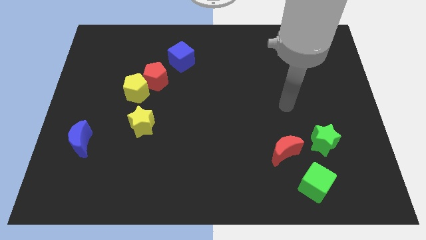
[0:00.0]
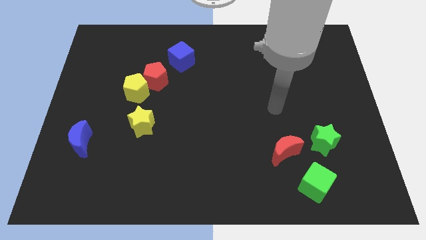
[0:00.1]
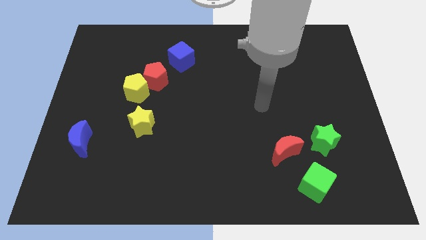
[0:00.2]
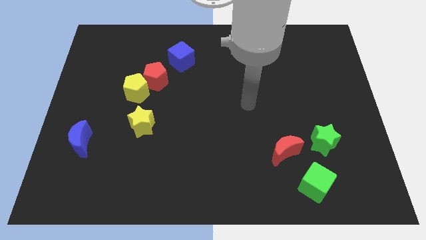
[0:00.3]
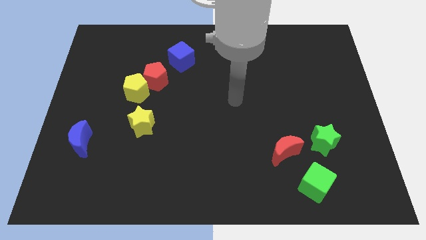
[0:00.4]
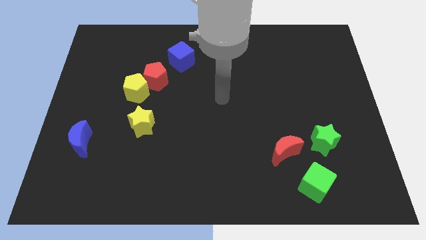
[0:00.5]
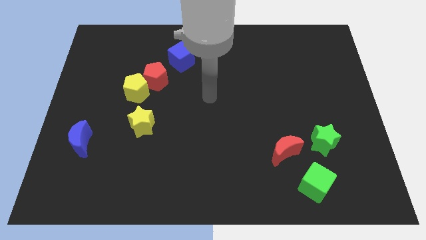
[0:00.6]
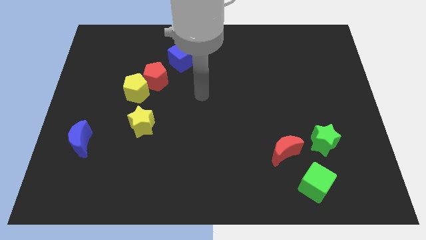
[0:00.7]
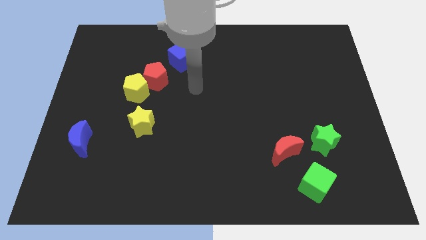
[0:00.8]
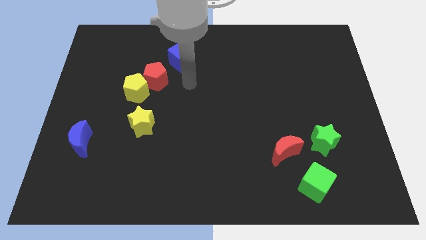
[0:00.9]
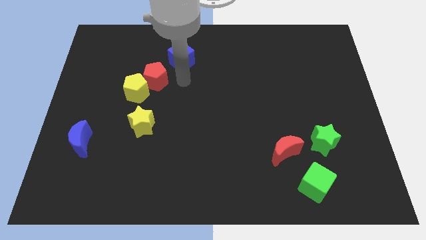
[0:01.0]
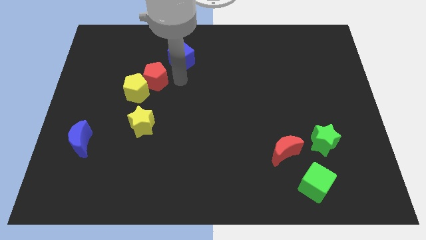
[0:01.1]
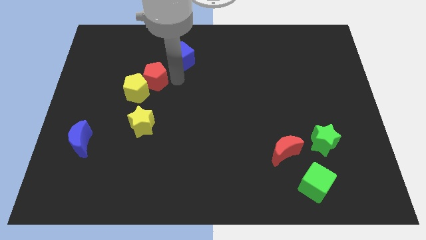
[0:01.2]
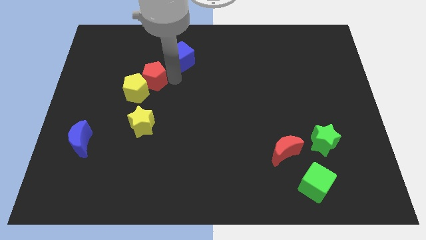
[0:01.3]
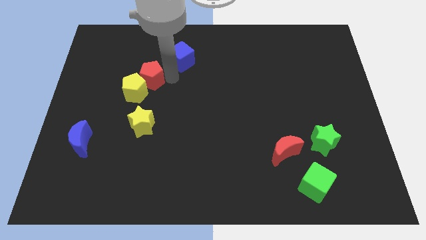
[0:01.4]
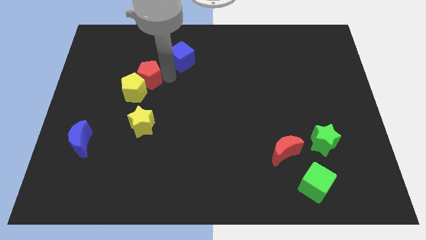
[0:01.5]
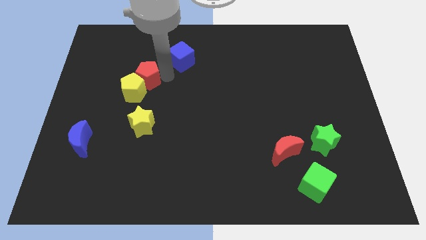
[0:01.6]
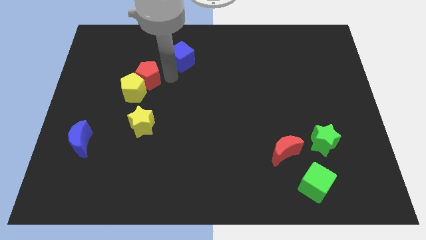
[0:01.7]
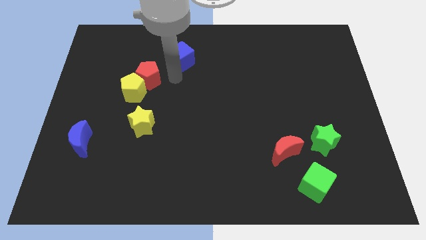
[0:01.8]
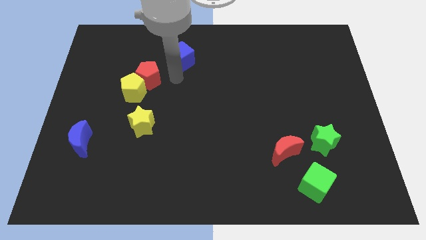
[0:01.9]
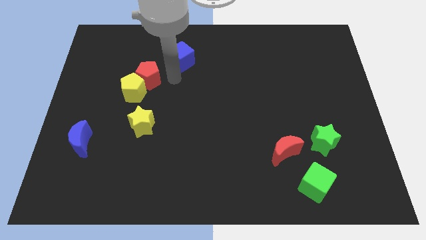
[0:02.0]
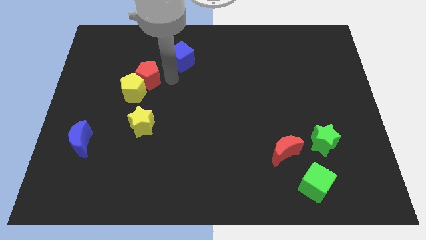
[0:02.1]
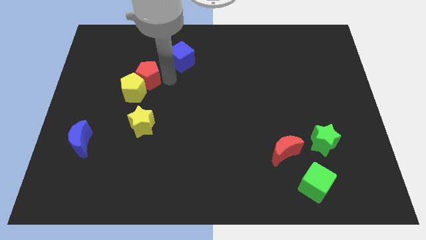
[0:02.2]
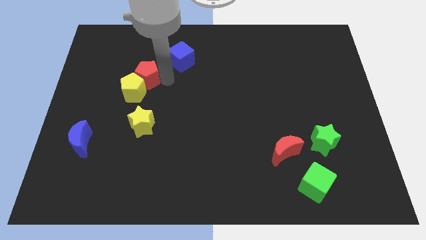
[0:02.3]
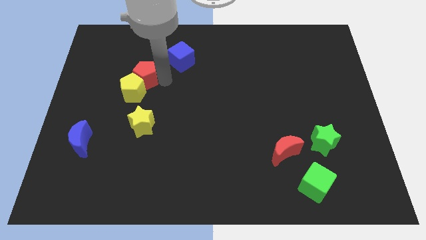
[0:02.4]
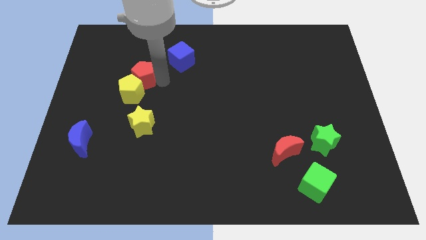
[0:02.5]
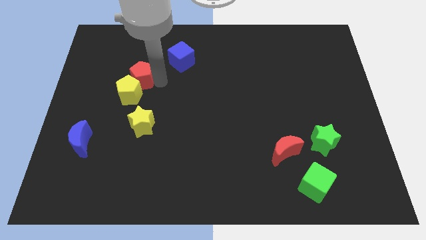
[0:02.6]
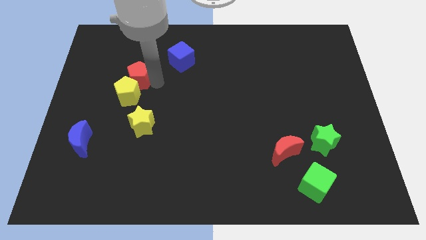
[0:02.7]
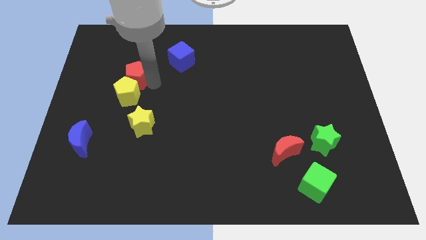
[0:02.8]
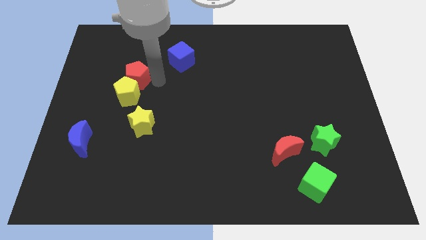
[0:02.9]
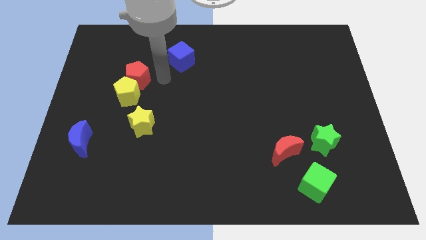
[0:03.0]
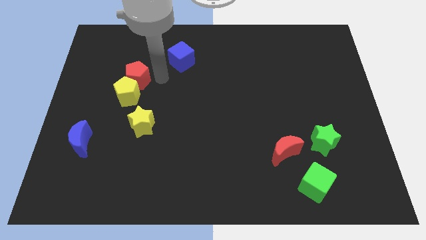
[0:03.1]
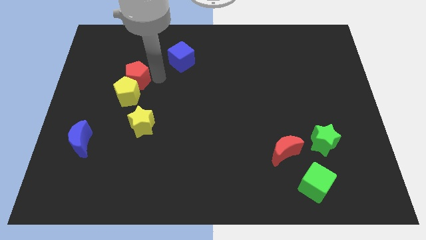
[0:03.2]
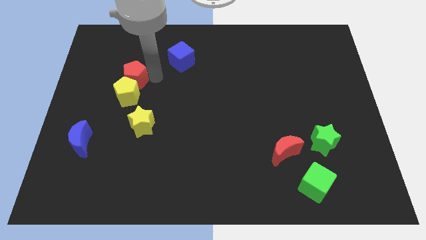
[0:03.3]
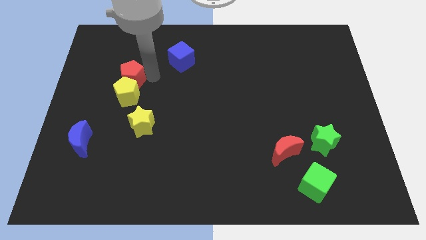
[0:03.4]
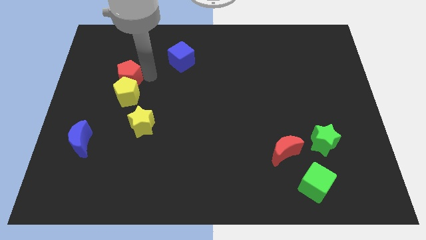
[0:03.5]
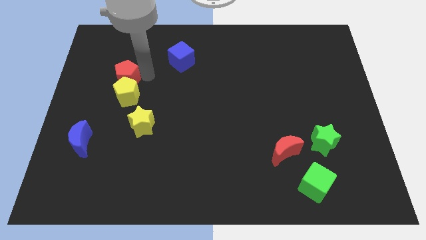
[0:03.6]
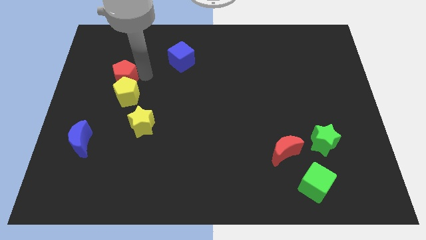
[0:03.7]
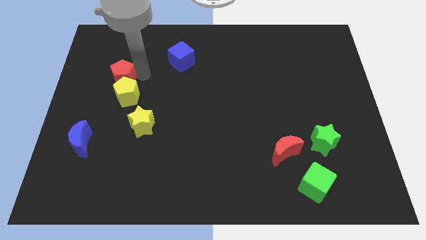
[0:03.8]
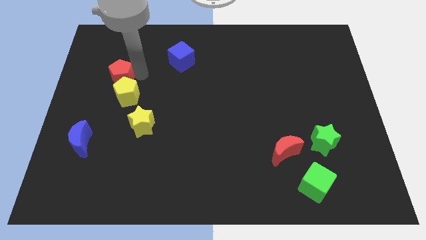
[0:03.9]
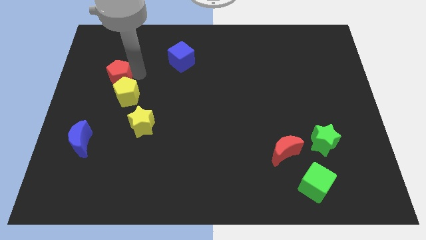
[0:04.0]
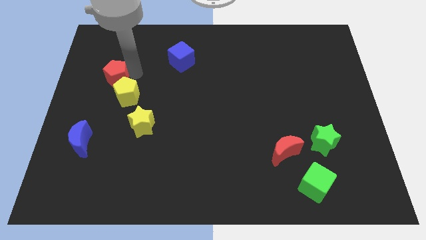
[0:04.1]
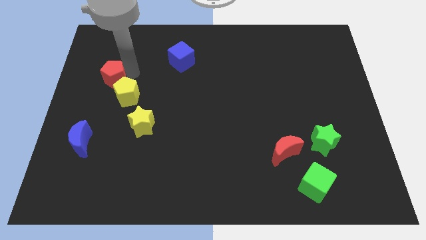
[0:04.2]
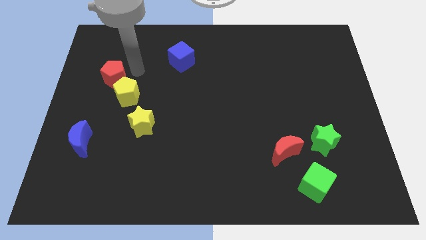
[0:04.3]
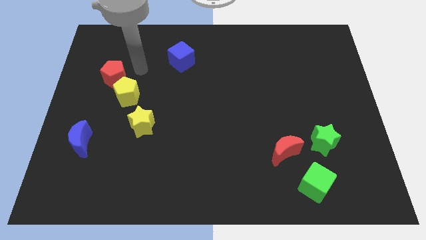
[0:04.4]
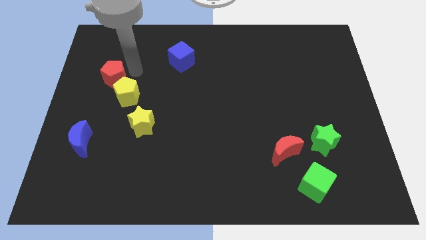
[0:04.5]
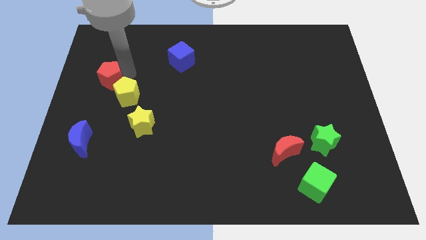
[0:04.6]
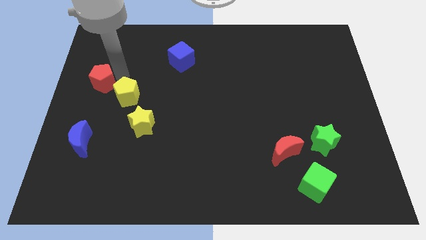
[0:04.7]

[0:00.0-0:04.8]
put the red pentagon to the left side

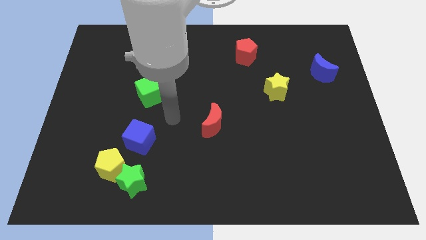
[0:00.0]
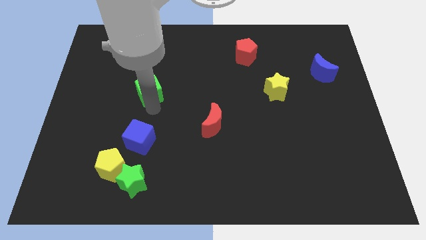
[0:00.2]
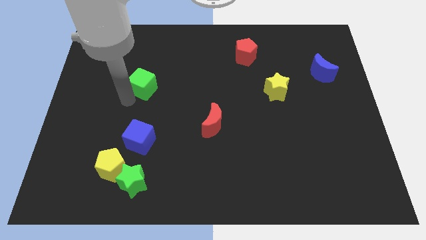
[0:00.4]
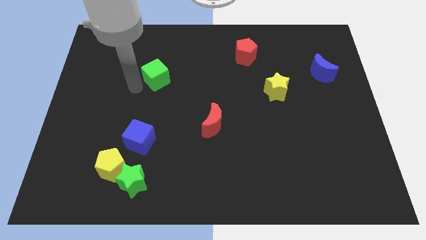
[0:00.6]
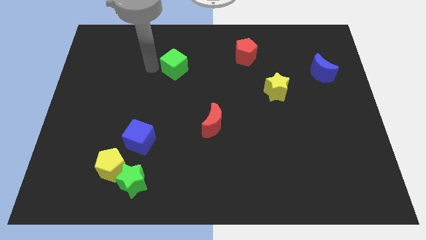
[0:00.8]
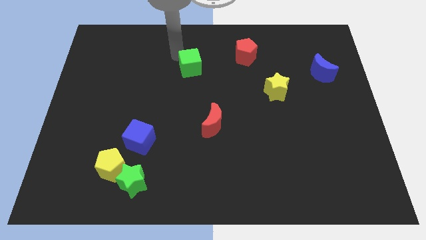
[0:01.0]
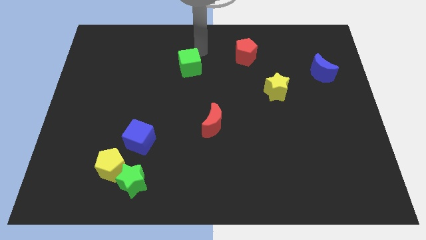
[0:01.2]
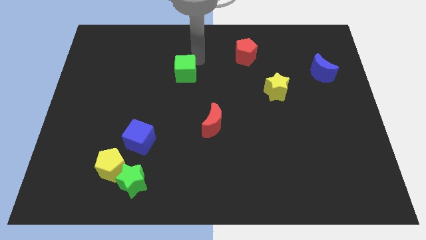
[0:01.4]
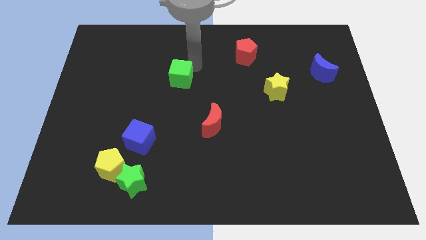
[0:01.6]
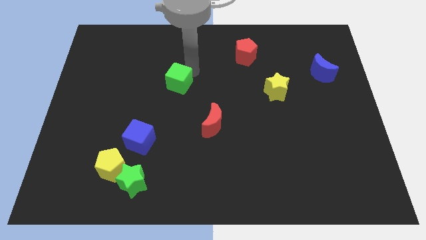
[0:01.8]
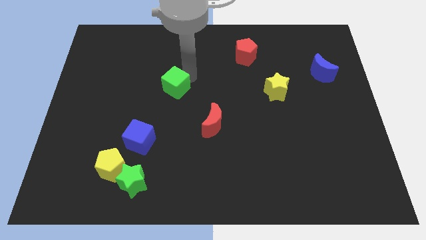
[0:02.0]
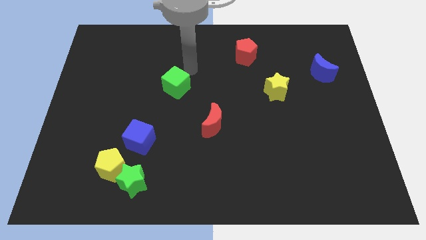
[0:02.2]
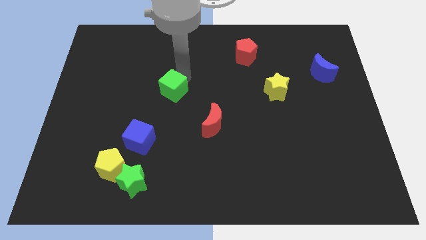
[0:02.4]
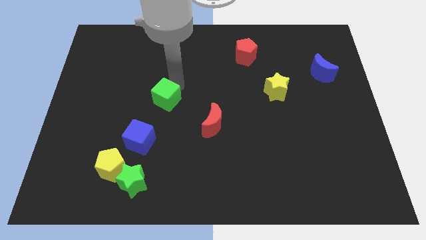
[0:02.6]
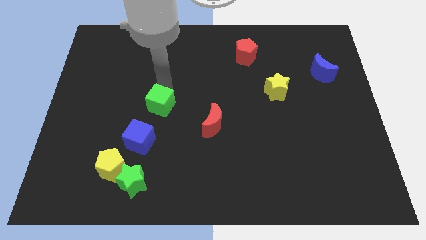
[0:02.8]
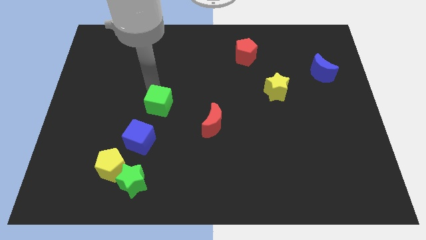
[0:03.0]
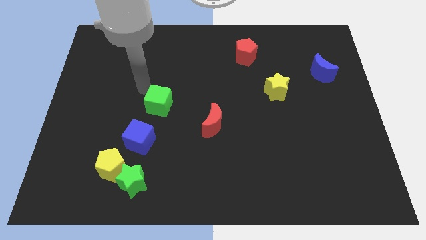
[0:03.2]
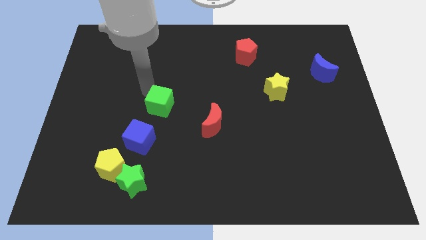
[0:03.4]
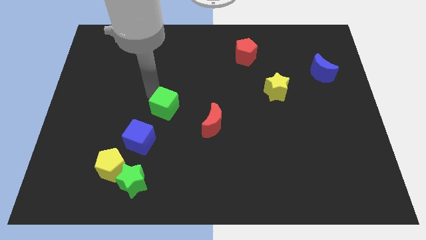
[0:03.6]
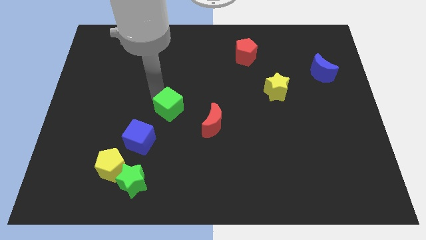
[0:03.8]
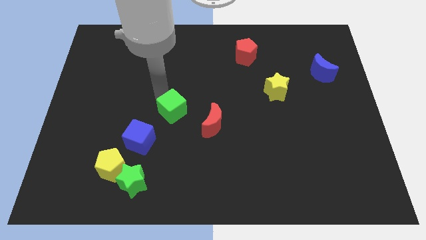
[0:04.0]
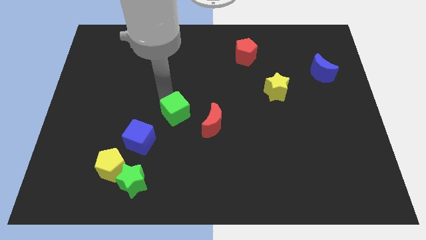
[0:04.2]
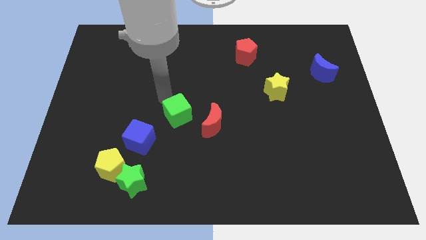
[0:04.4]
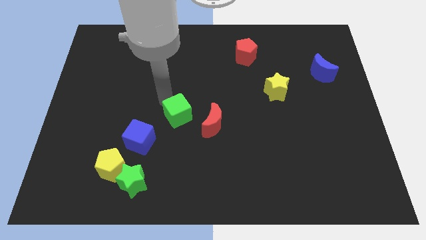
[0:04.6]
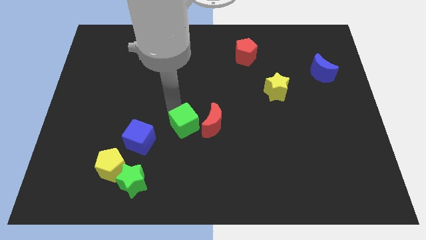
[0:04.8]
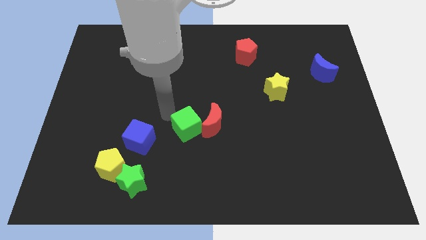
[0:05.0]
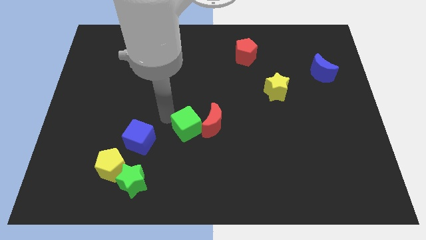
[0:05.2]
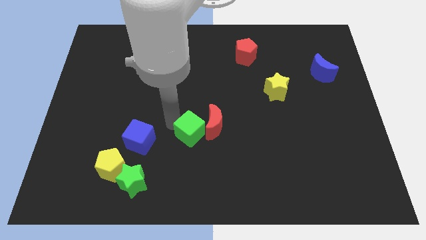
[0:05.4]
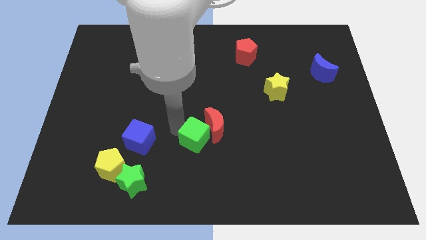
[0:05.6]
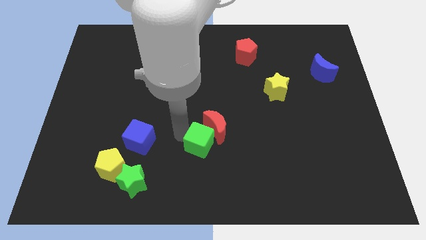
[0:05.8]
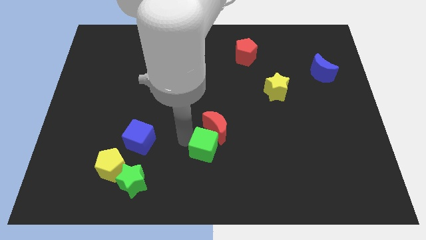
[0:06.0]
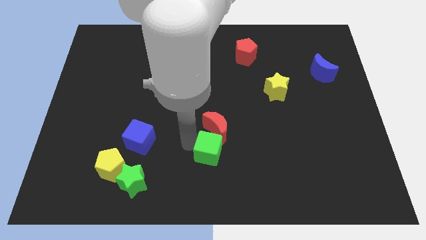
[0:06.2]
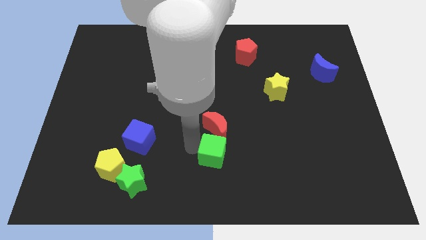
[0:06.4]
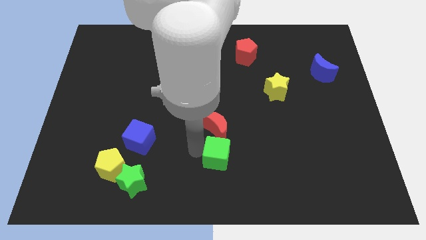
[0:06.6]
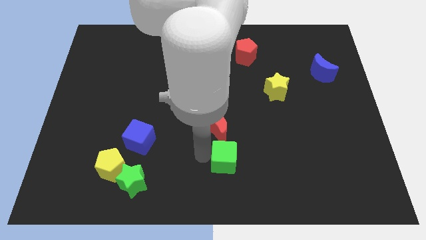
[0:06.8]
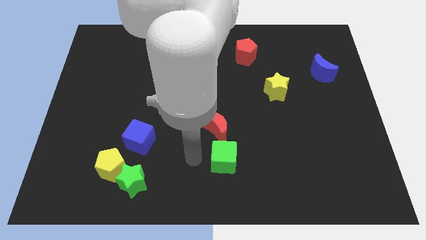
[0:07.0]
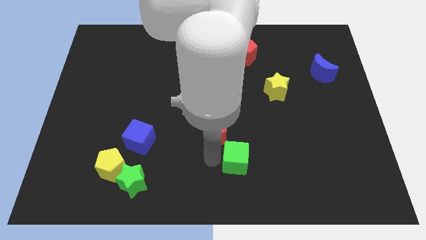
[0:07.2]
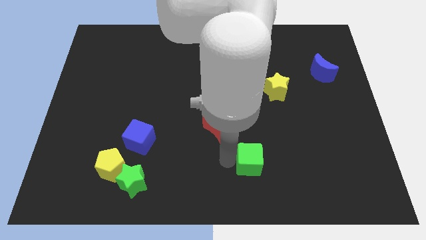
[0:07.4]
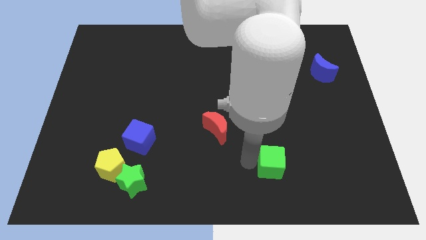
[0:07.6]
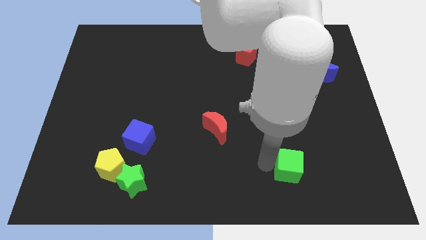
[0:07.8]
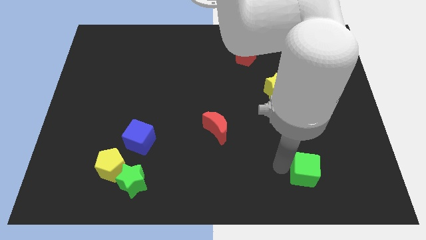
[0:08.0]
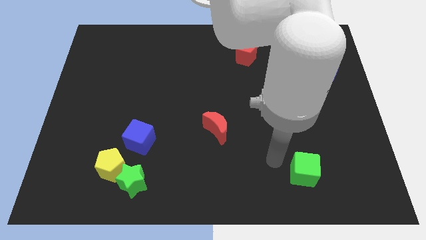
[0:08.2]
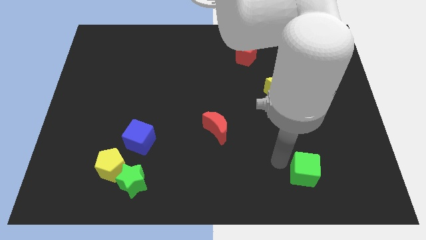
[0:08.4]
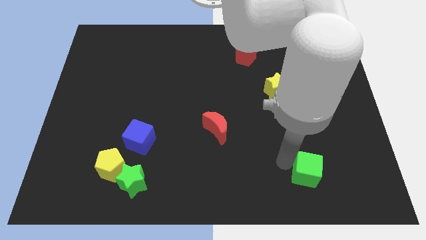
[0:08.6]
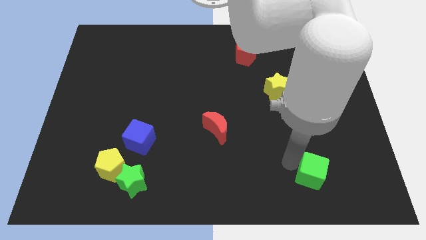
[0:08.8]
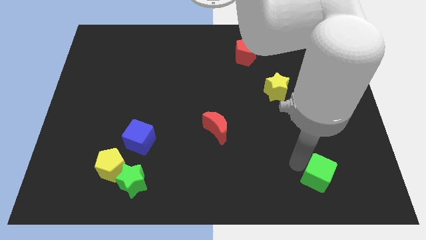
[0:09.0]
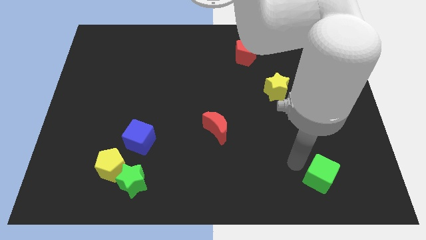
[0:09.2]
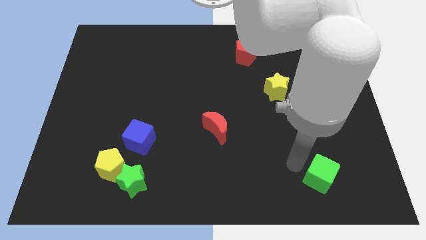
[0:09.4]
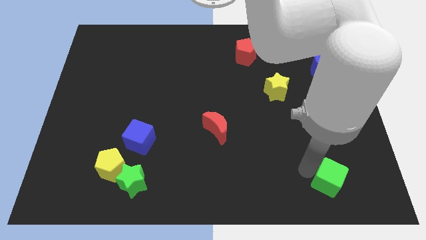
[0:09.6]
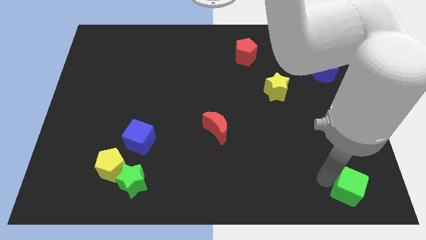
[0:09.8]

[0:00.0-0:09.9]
push the green cube to the bottom right corner
